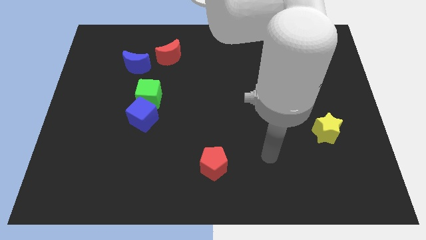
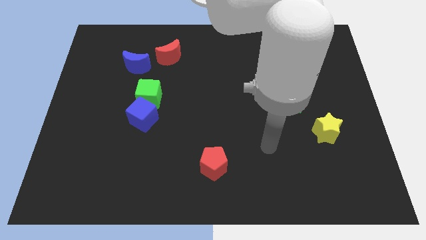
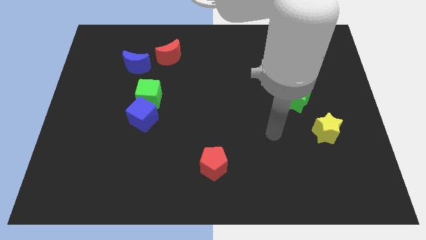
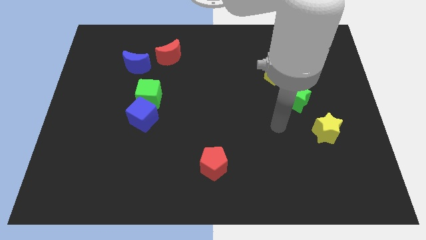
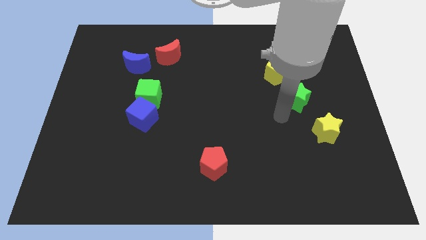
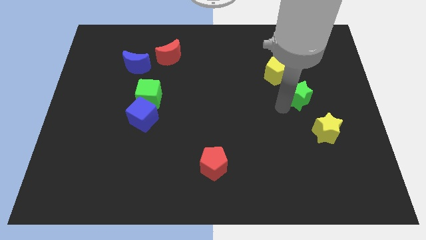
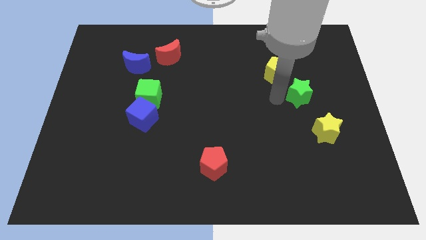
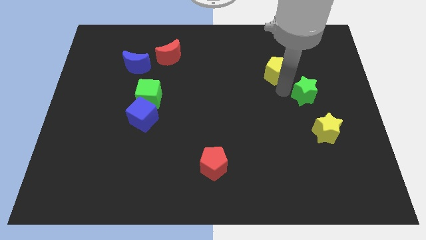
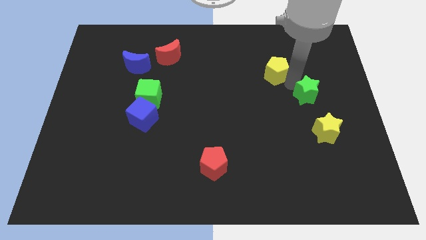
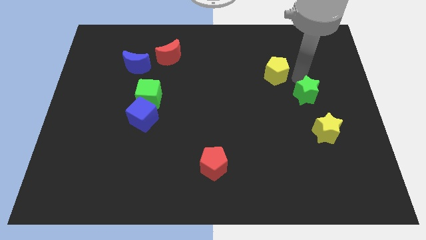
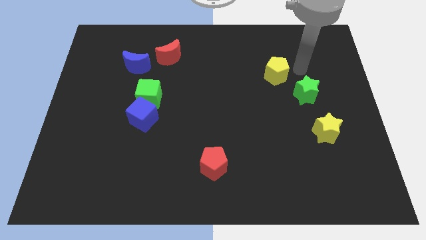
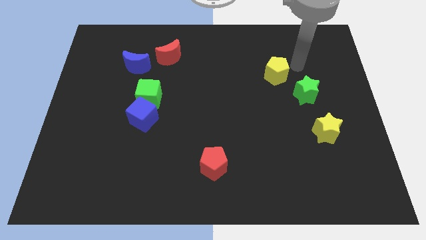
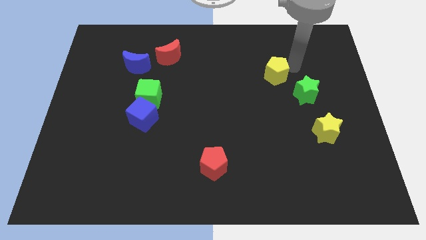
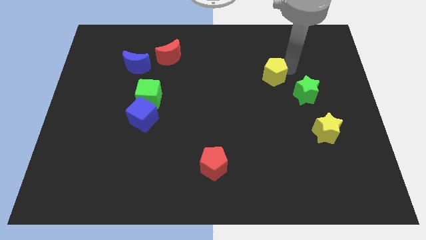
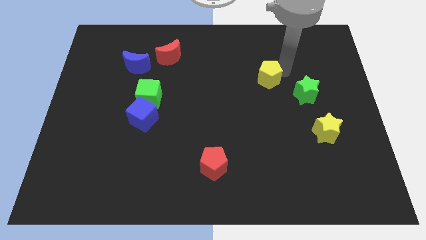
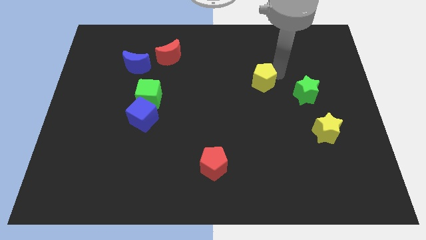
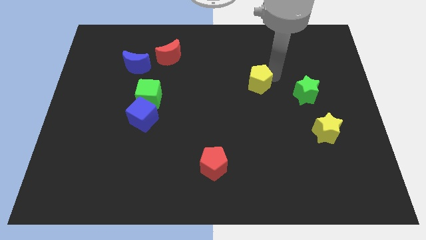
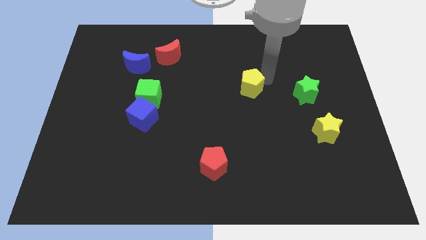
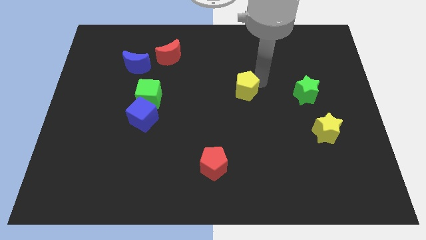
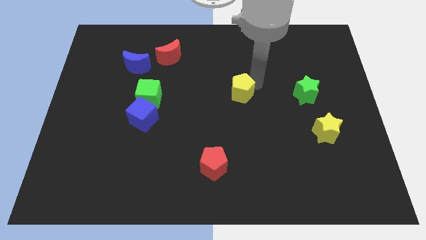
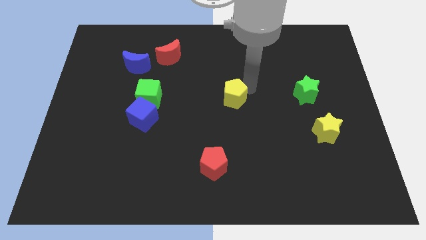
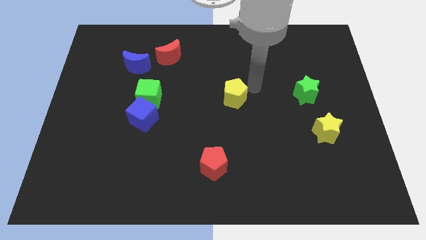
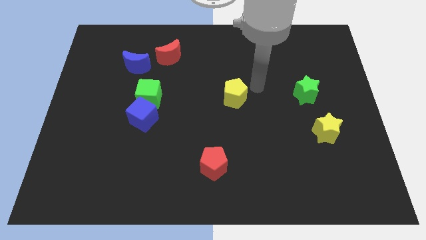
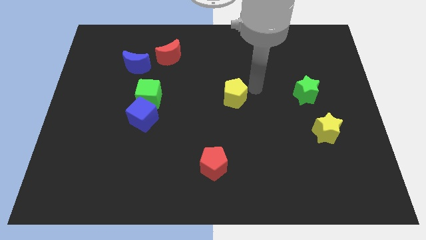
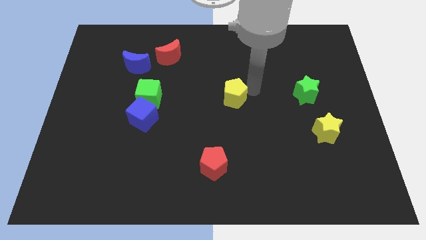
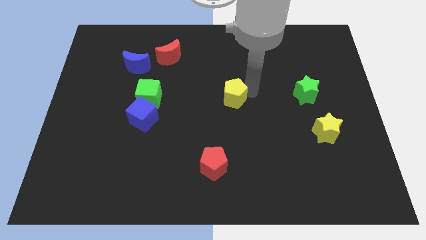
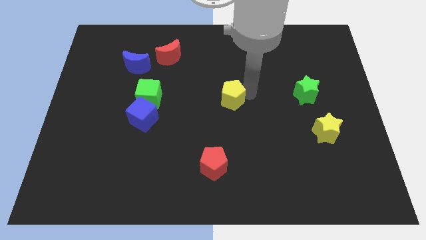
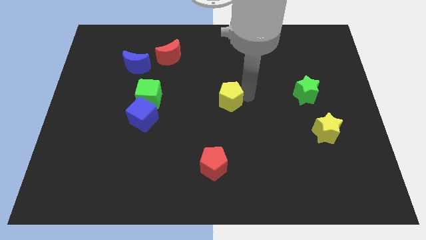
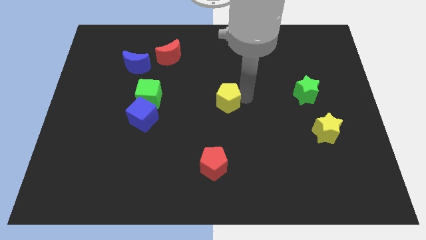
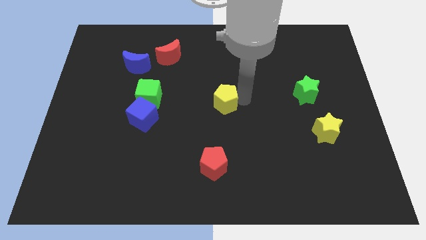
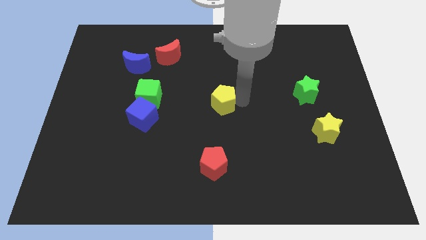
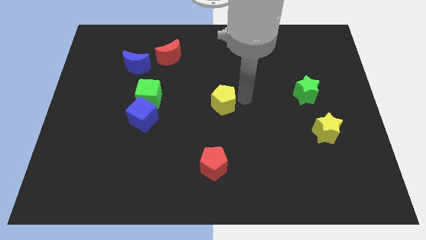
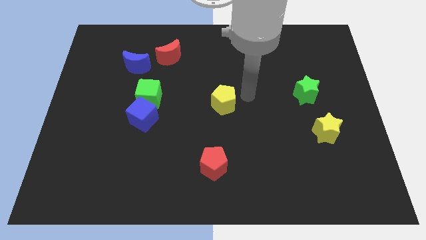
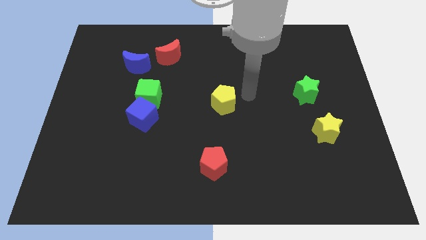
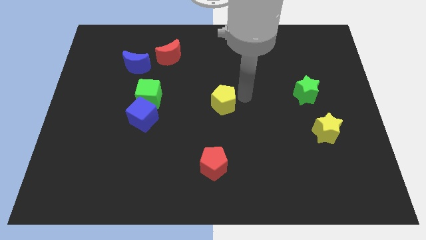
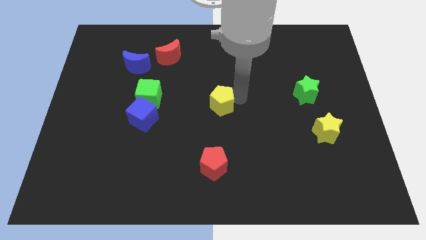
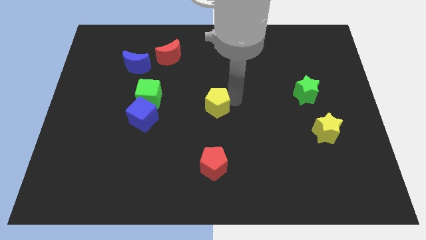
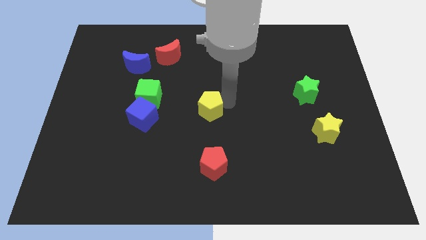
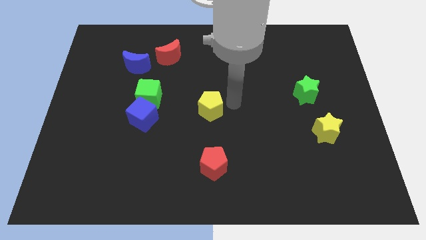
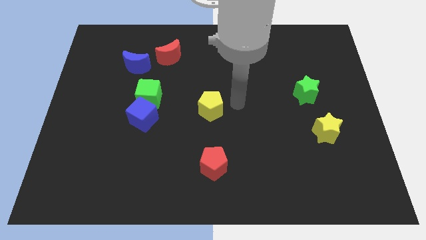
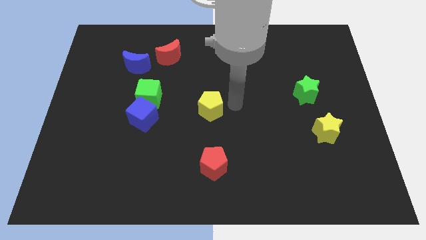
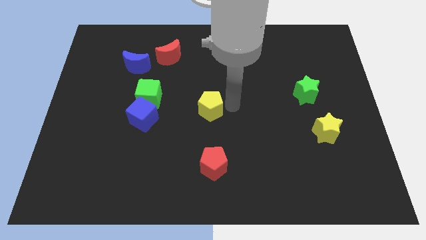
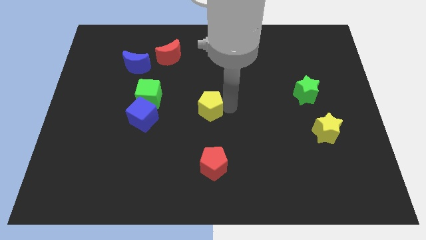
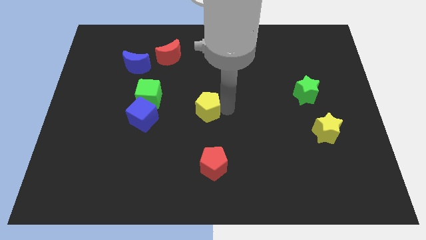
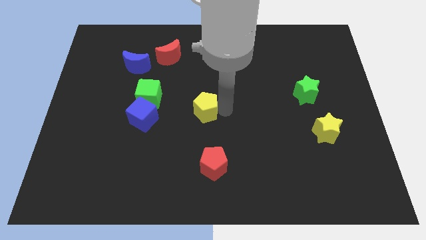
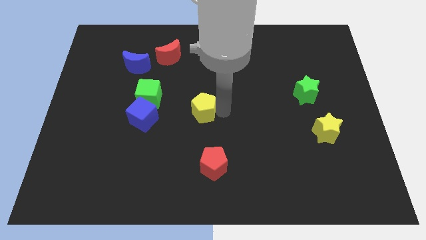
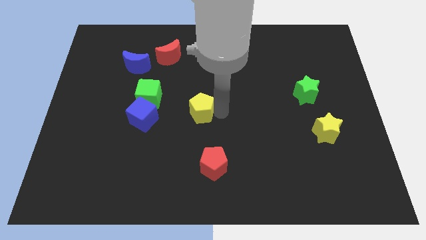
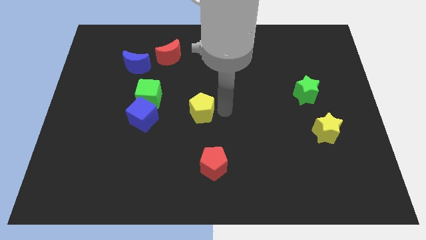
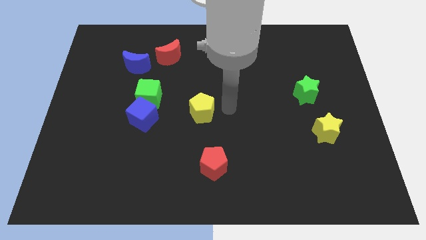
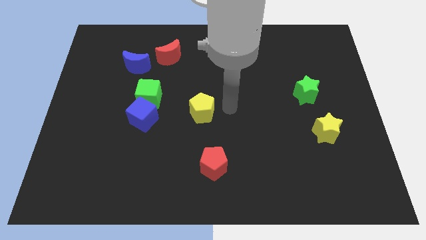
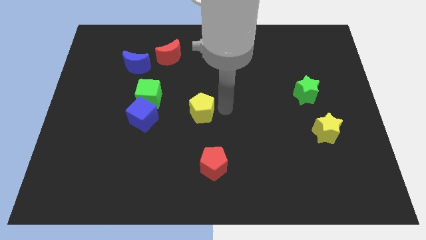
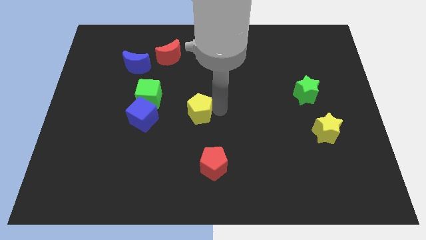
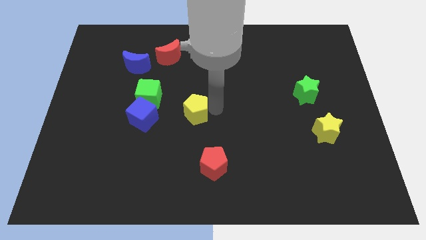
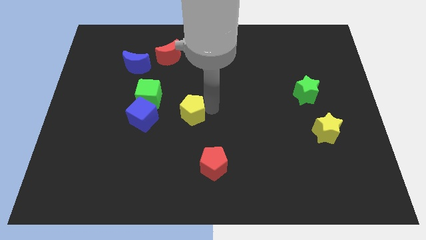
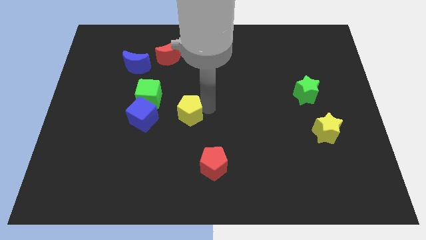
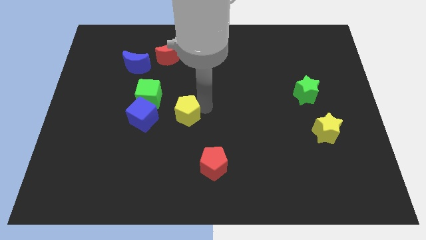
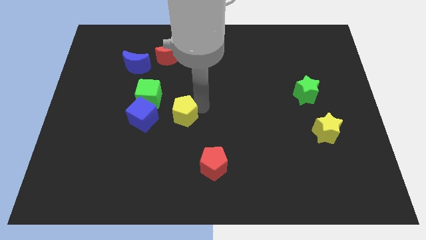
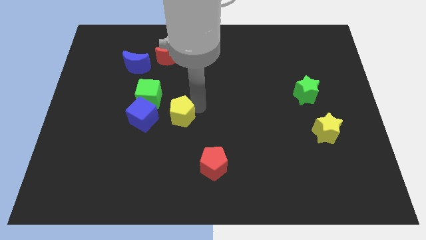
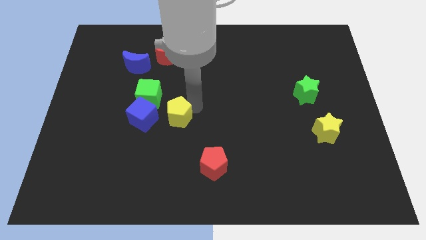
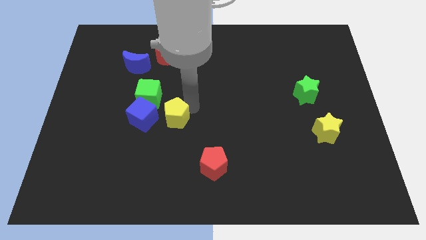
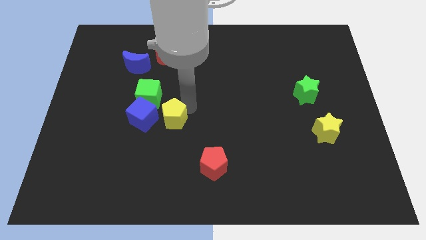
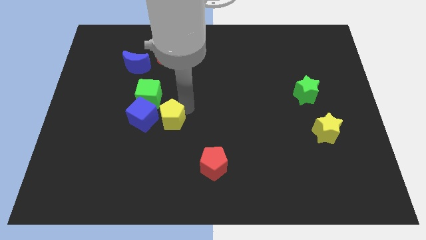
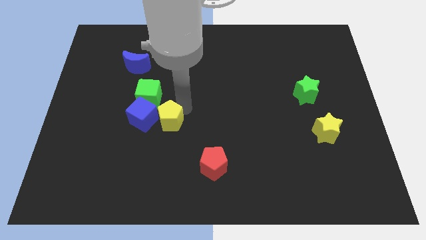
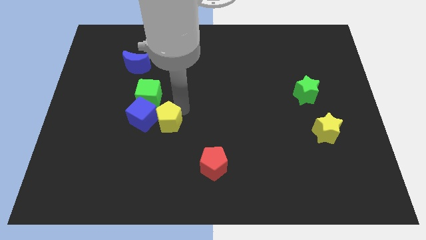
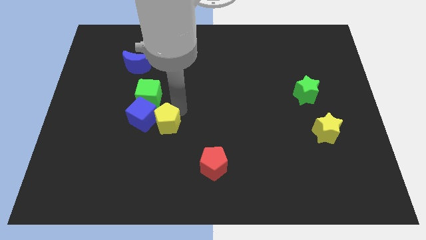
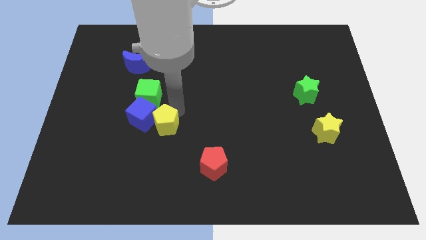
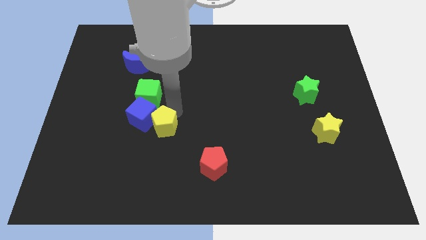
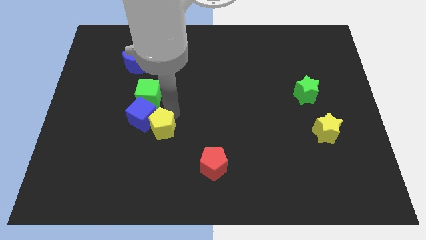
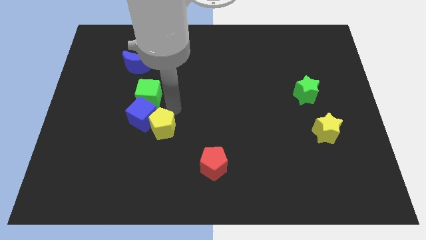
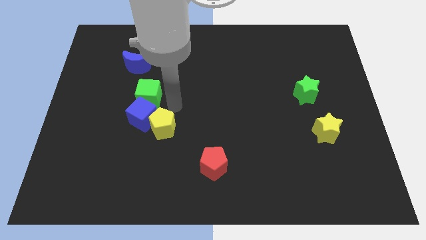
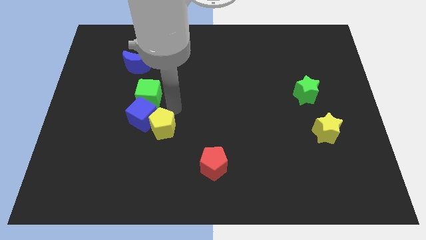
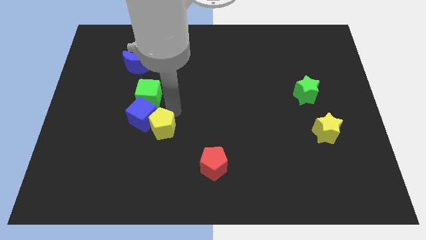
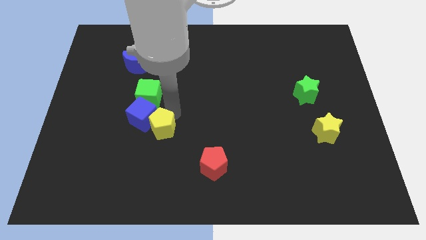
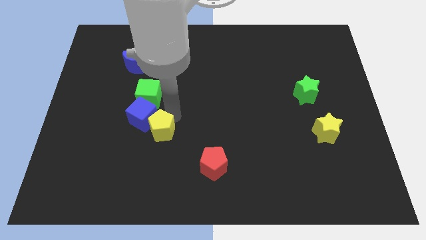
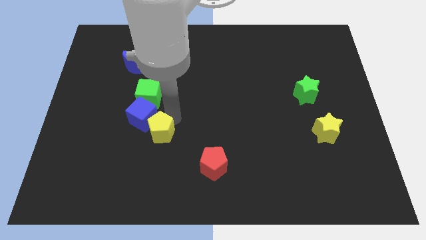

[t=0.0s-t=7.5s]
put the yellow pentagon below the blue cube
